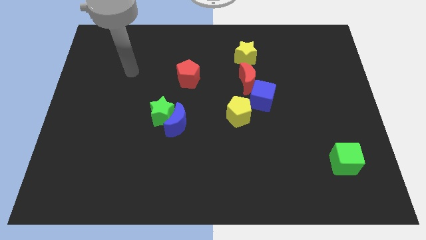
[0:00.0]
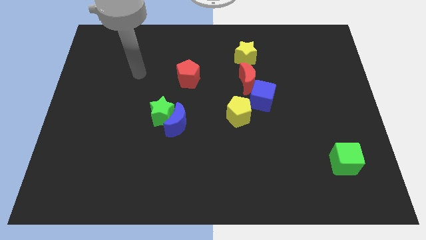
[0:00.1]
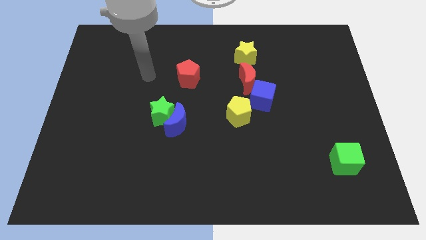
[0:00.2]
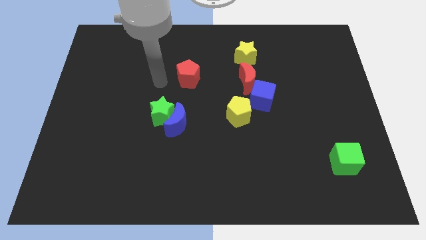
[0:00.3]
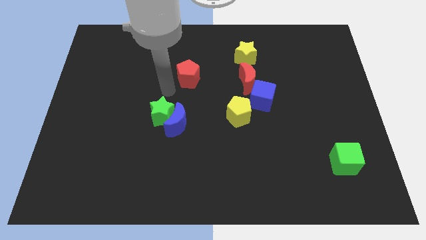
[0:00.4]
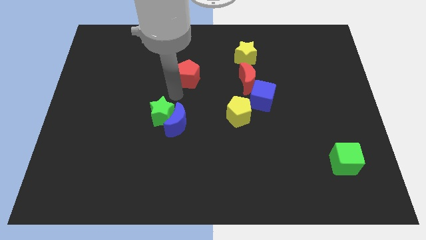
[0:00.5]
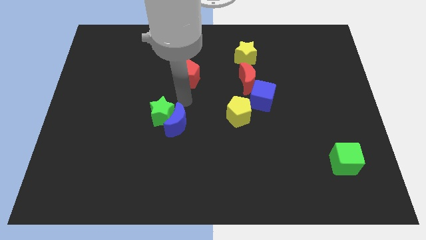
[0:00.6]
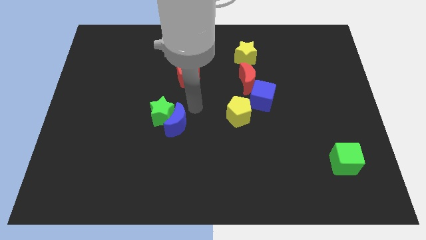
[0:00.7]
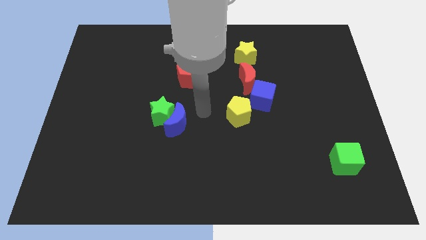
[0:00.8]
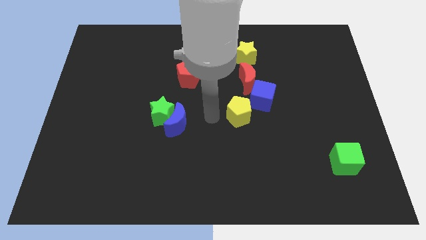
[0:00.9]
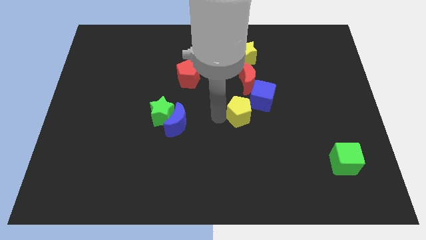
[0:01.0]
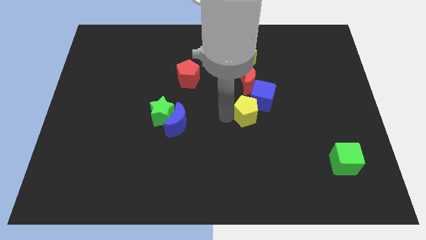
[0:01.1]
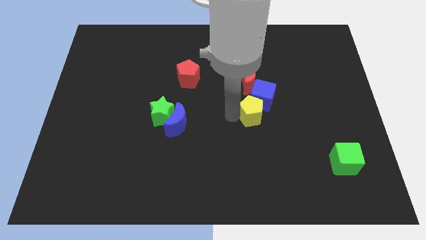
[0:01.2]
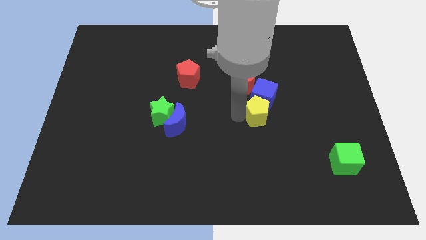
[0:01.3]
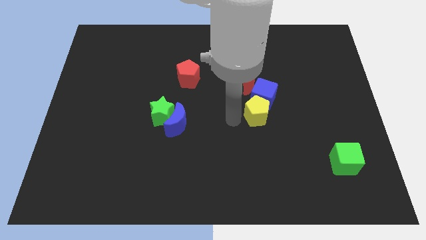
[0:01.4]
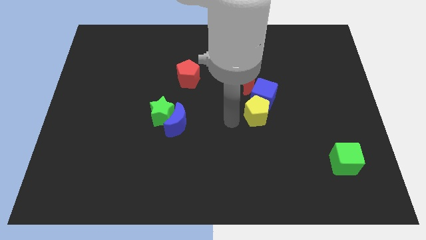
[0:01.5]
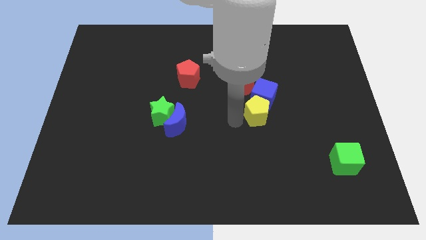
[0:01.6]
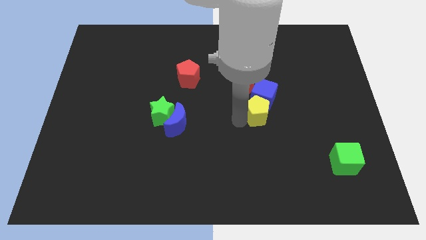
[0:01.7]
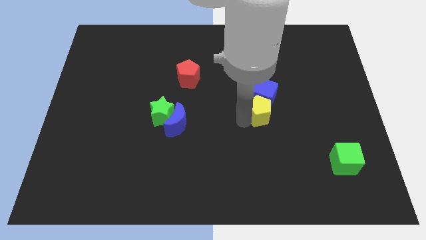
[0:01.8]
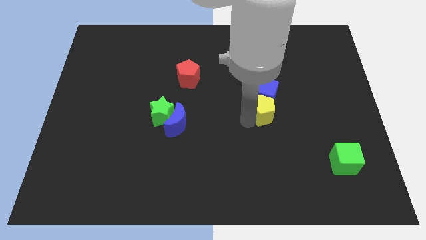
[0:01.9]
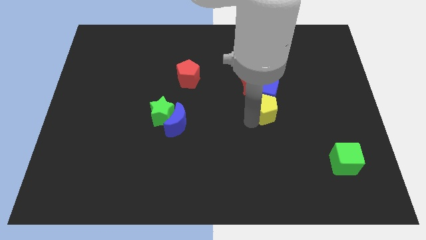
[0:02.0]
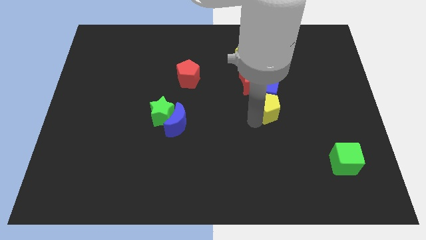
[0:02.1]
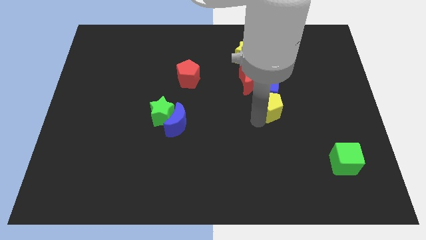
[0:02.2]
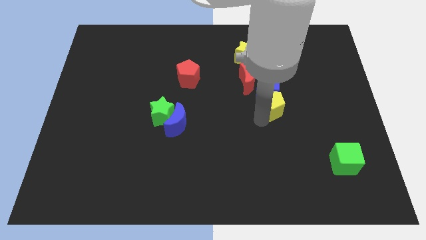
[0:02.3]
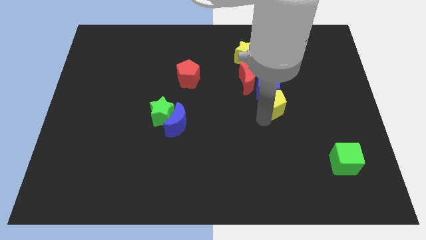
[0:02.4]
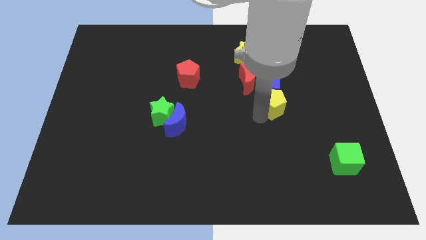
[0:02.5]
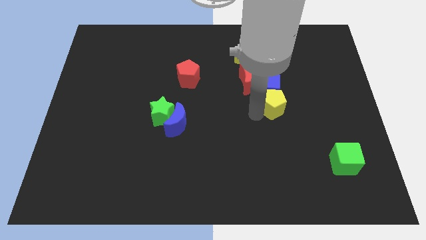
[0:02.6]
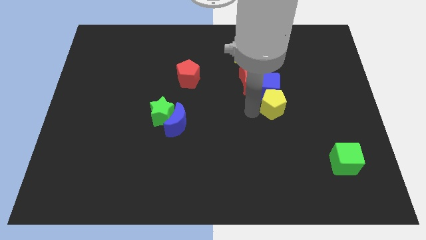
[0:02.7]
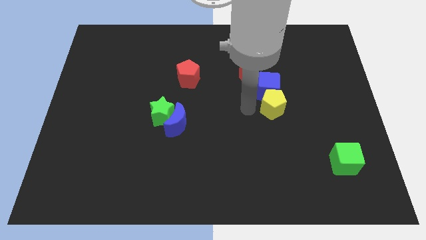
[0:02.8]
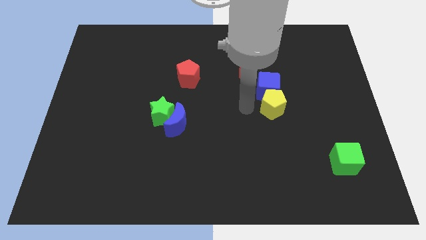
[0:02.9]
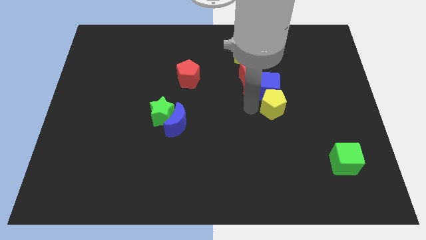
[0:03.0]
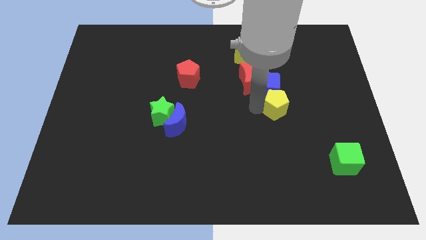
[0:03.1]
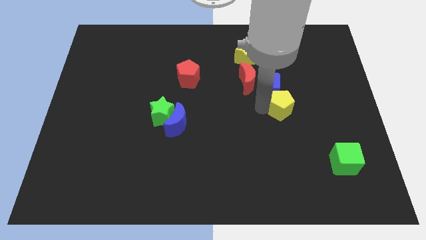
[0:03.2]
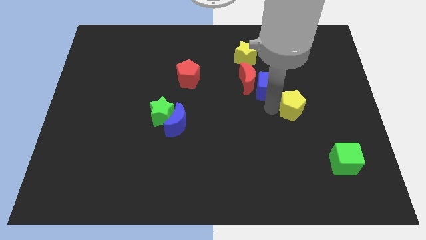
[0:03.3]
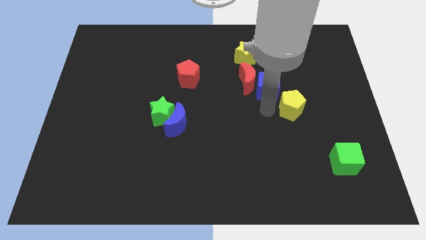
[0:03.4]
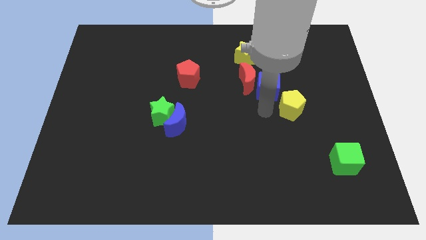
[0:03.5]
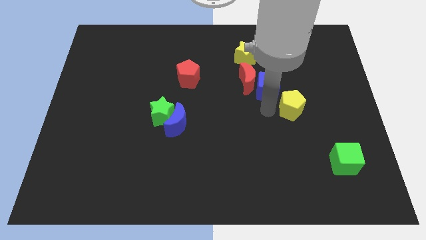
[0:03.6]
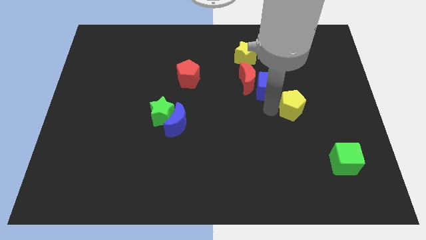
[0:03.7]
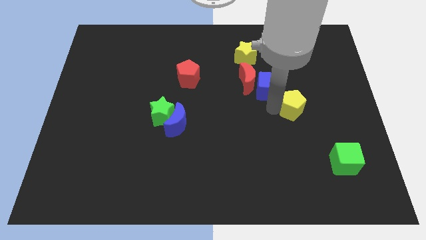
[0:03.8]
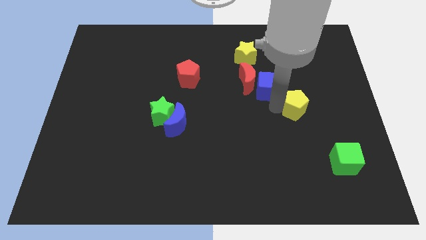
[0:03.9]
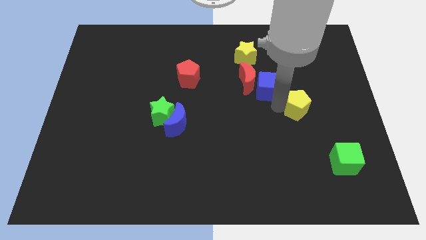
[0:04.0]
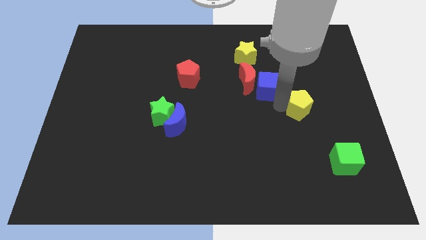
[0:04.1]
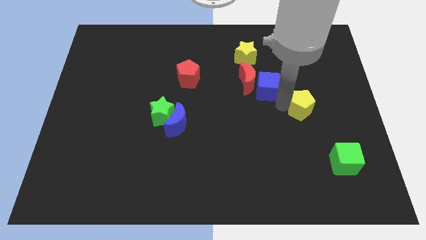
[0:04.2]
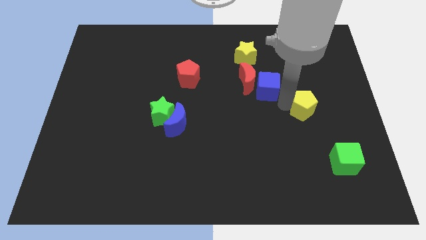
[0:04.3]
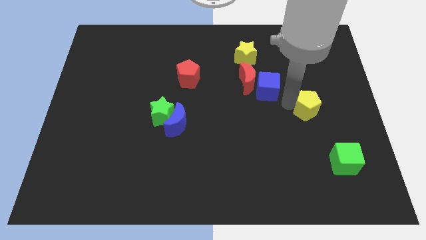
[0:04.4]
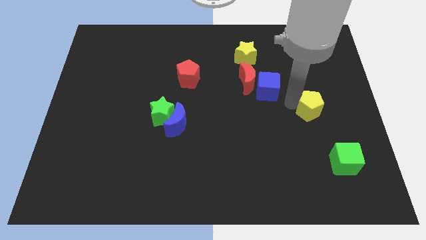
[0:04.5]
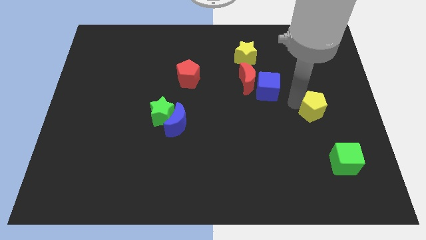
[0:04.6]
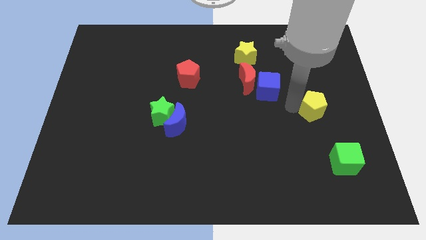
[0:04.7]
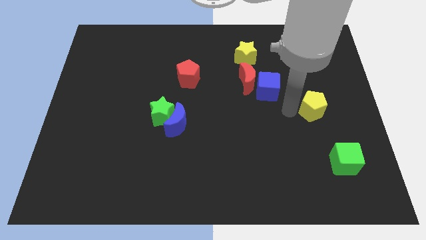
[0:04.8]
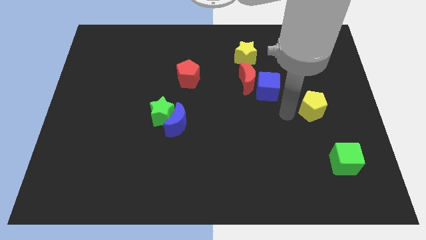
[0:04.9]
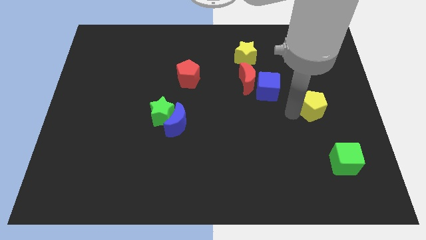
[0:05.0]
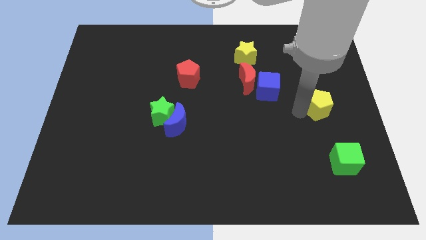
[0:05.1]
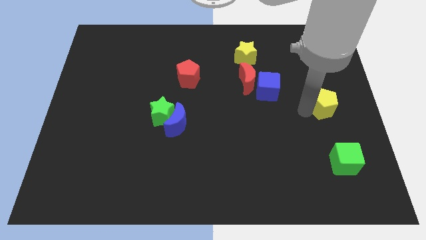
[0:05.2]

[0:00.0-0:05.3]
put the yellow pentagon to the right side of the board
